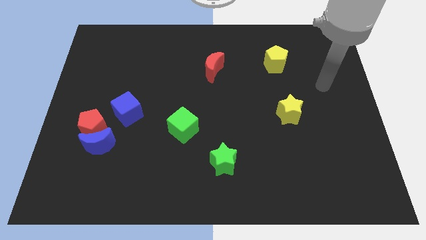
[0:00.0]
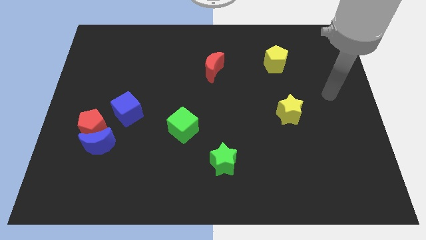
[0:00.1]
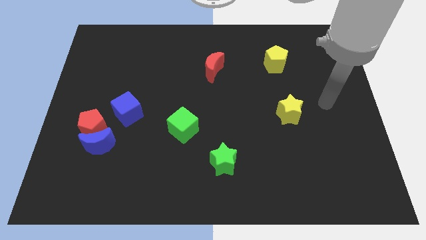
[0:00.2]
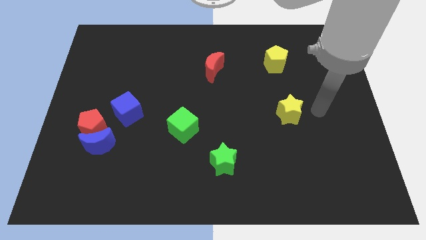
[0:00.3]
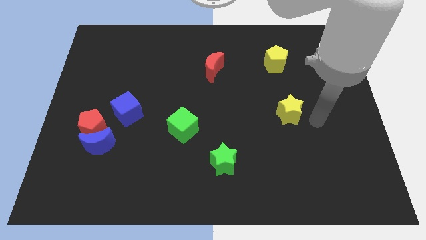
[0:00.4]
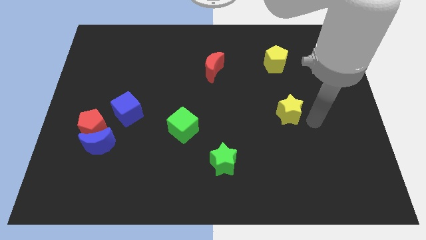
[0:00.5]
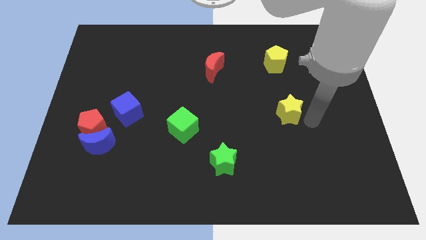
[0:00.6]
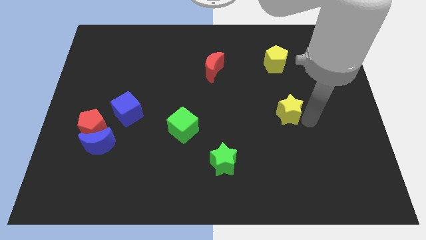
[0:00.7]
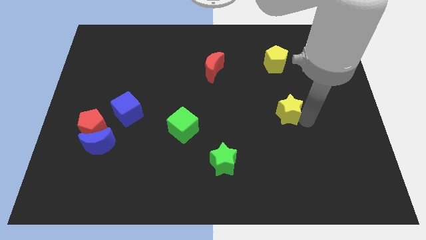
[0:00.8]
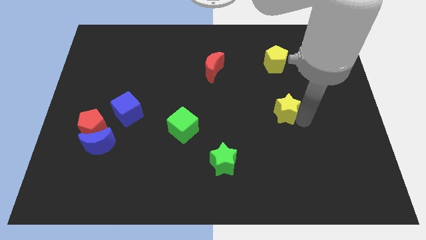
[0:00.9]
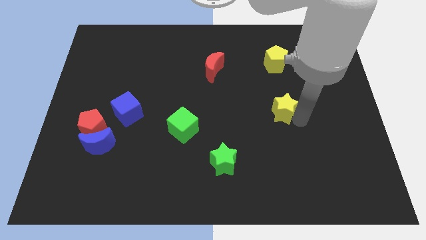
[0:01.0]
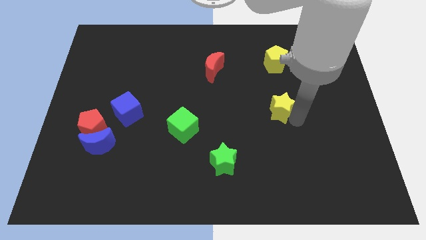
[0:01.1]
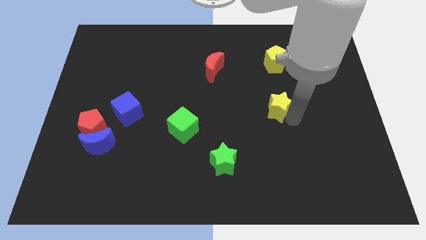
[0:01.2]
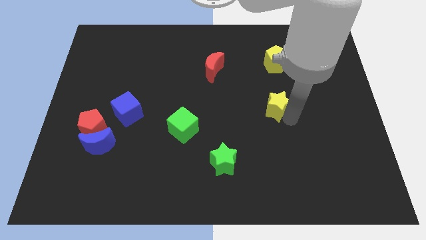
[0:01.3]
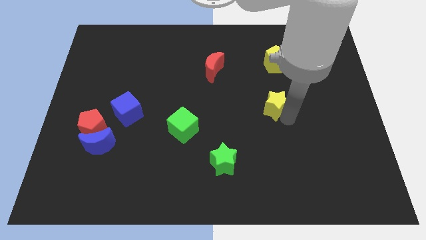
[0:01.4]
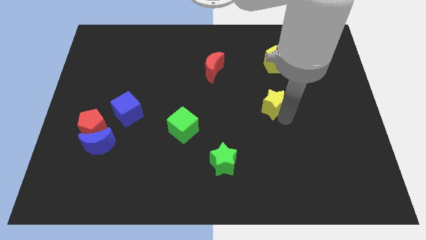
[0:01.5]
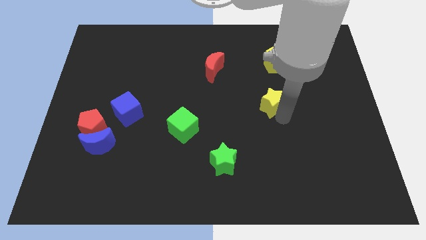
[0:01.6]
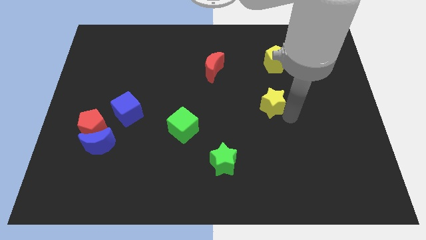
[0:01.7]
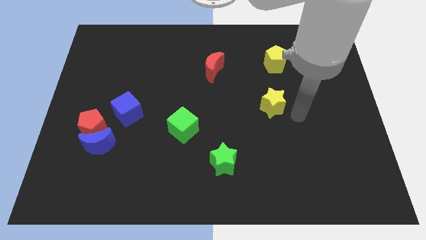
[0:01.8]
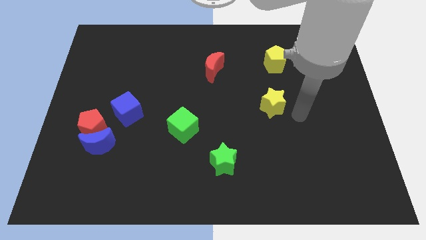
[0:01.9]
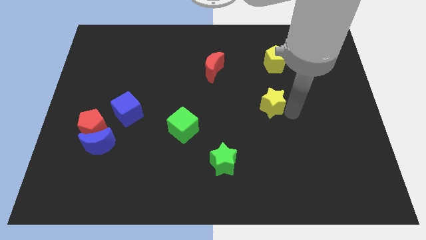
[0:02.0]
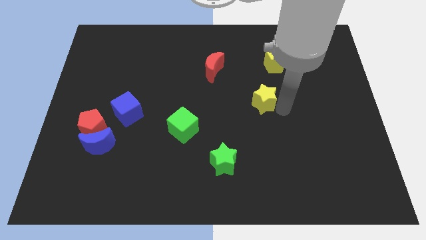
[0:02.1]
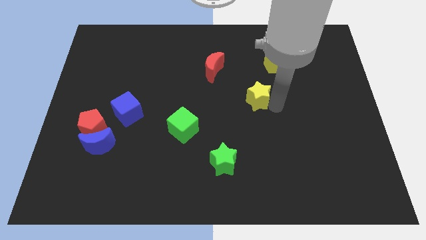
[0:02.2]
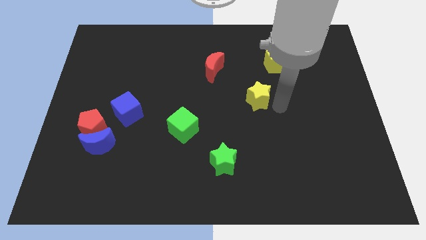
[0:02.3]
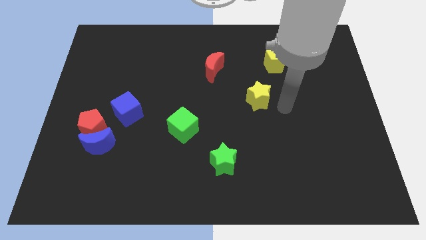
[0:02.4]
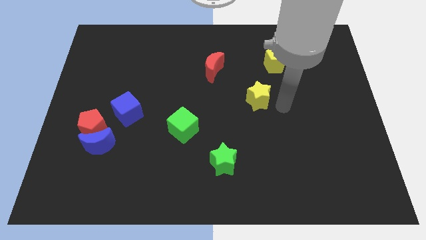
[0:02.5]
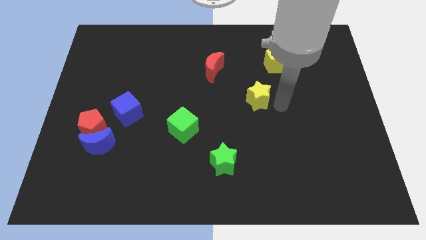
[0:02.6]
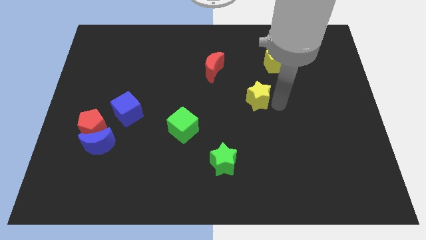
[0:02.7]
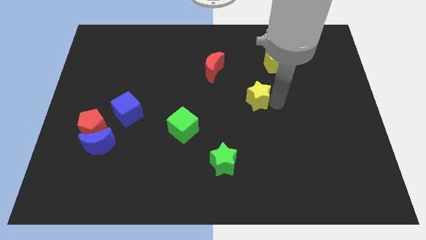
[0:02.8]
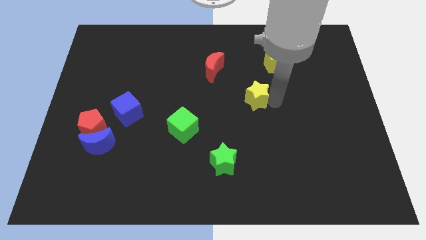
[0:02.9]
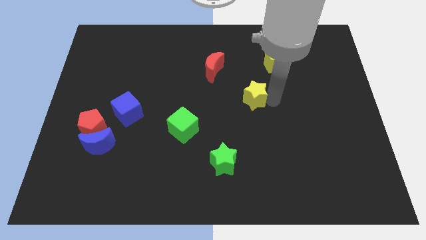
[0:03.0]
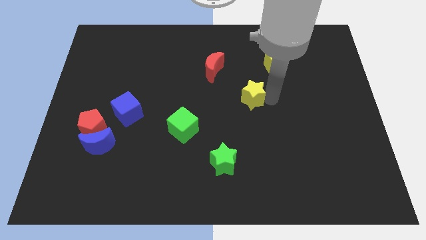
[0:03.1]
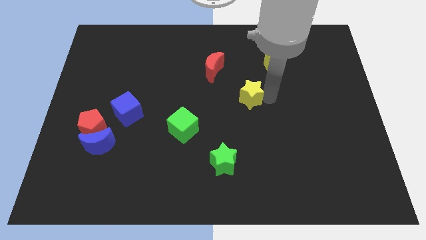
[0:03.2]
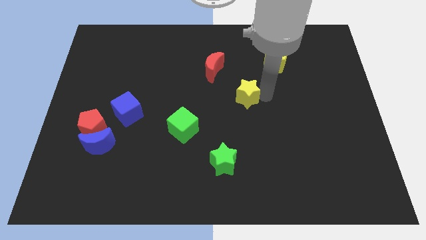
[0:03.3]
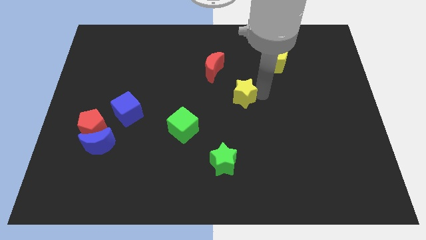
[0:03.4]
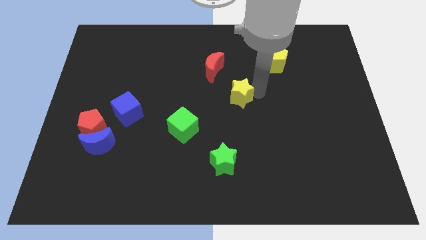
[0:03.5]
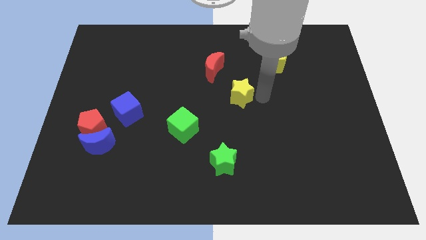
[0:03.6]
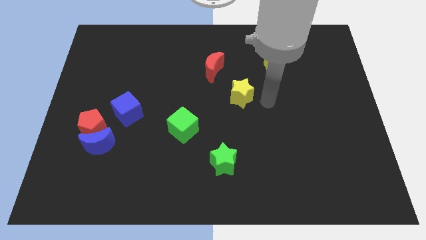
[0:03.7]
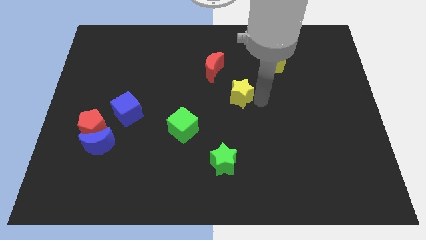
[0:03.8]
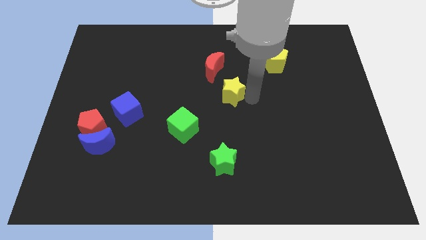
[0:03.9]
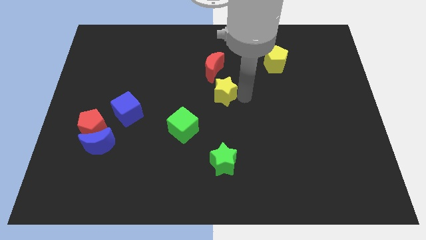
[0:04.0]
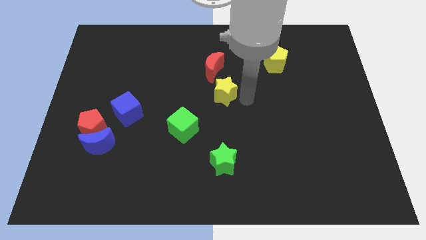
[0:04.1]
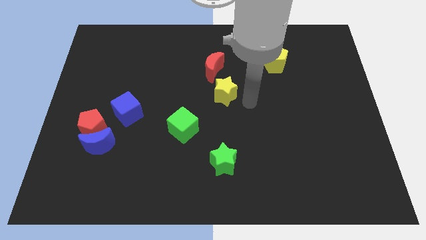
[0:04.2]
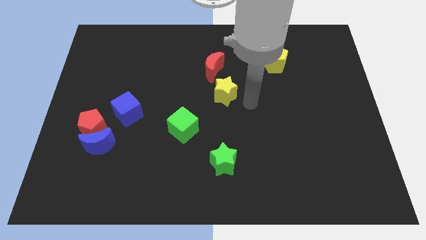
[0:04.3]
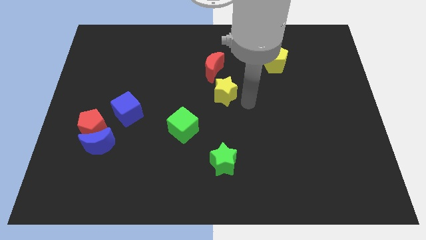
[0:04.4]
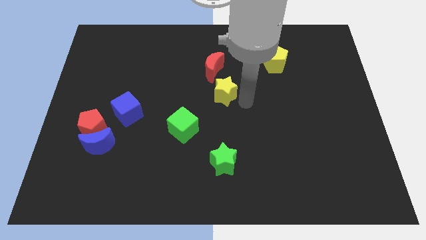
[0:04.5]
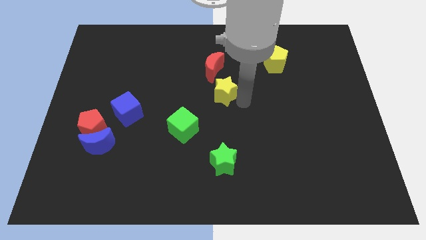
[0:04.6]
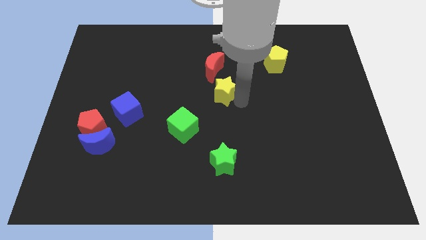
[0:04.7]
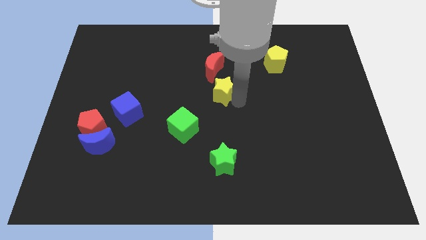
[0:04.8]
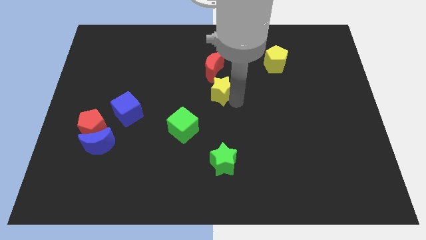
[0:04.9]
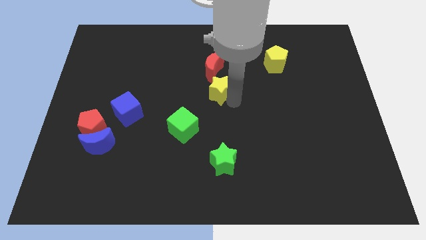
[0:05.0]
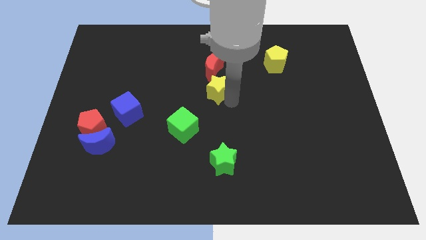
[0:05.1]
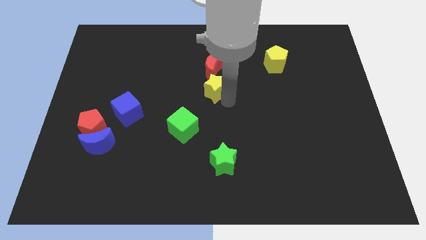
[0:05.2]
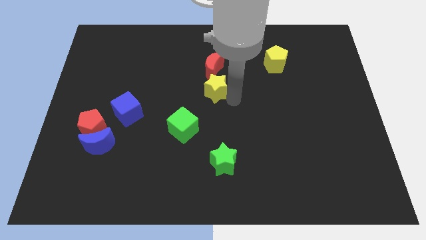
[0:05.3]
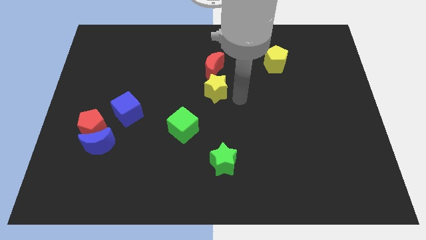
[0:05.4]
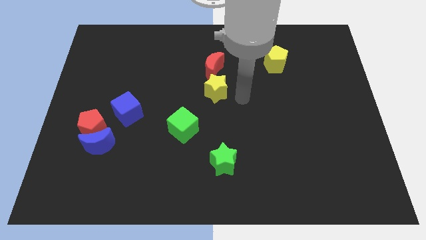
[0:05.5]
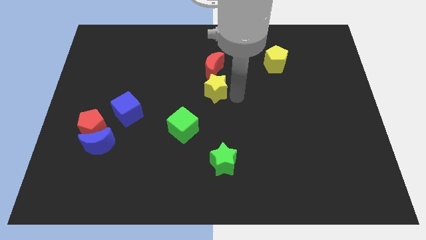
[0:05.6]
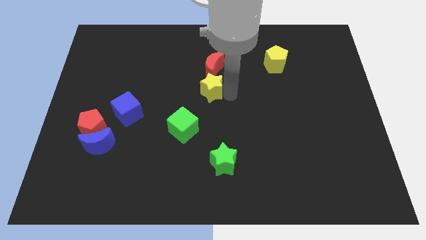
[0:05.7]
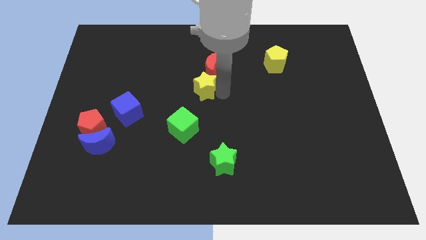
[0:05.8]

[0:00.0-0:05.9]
put the yellow star to the bottom left side of the red moon

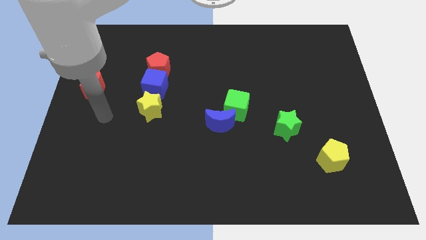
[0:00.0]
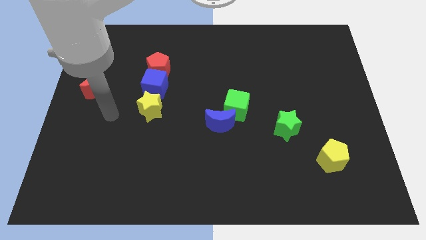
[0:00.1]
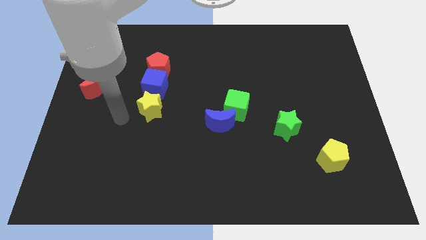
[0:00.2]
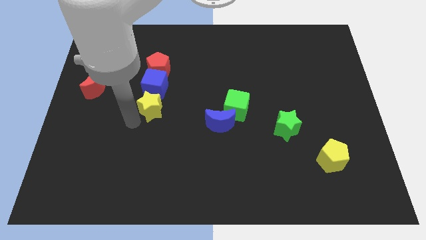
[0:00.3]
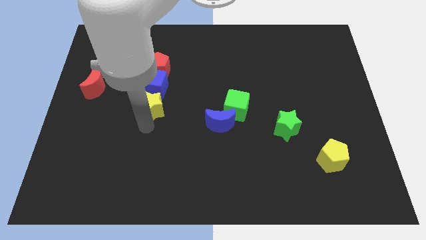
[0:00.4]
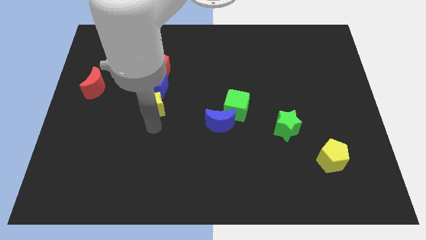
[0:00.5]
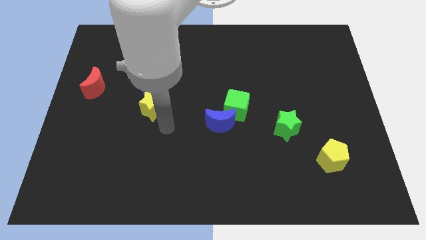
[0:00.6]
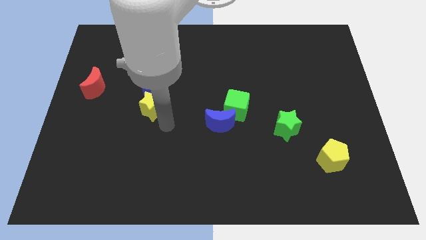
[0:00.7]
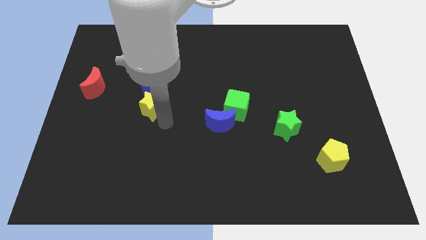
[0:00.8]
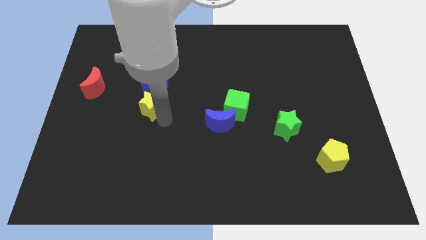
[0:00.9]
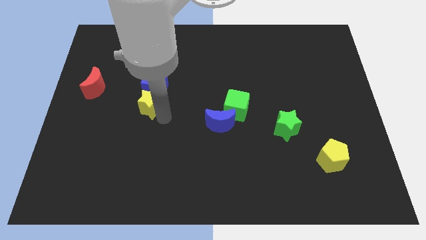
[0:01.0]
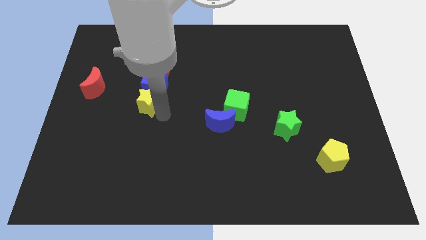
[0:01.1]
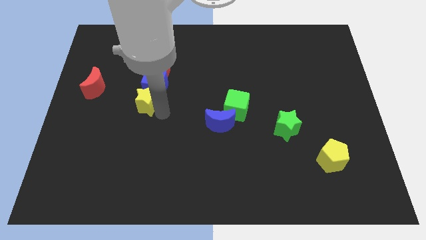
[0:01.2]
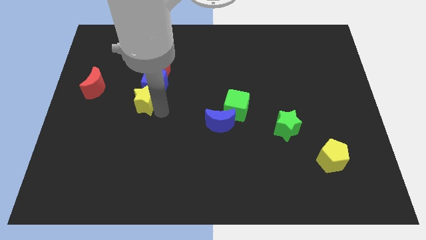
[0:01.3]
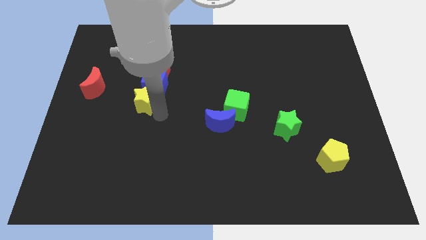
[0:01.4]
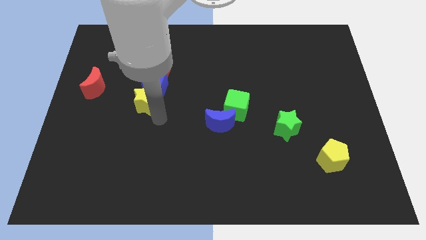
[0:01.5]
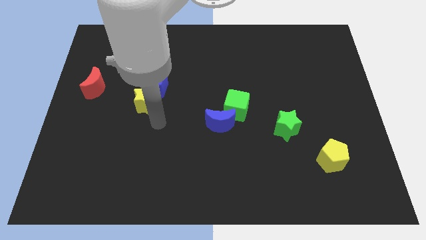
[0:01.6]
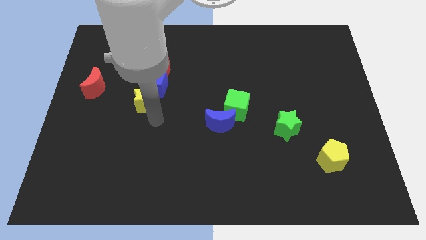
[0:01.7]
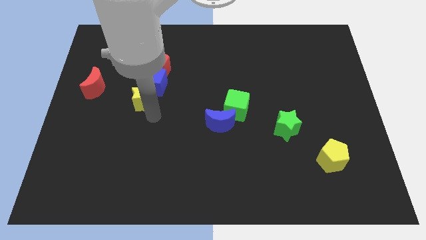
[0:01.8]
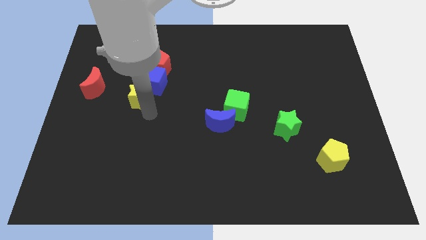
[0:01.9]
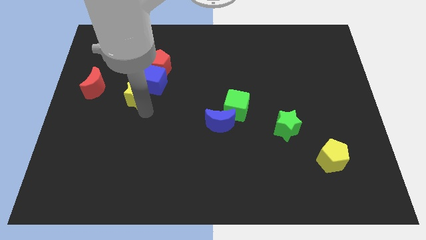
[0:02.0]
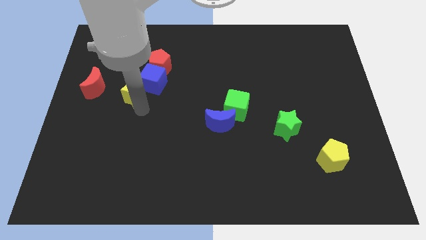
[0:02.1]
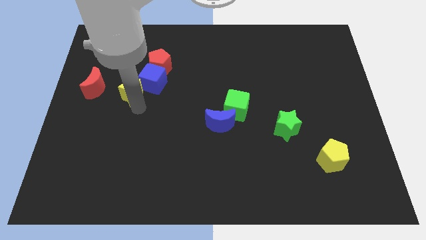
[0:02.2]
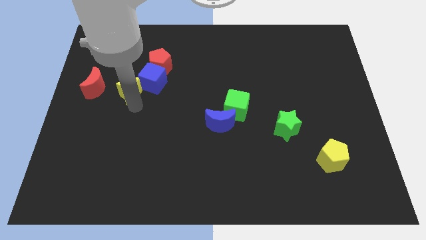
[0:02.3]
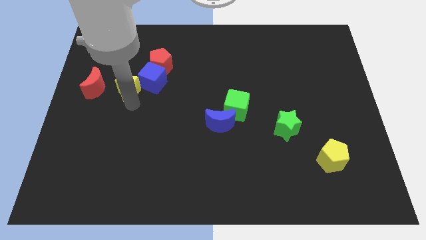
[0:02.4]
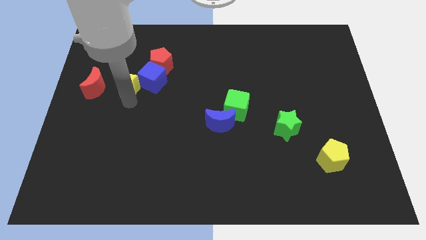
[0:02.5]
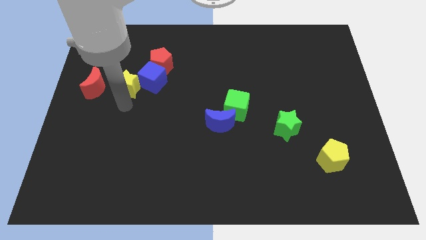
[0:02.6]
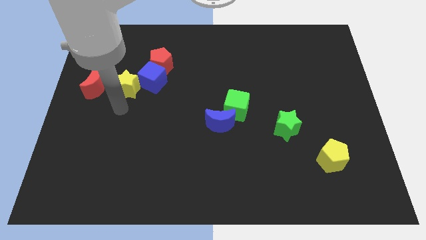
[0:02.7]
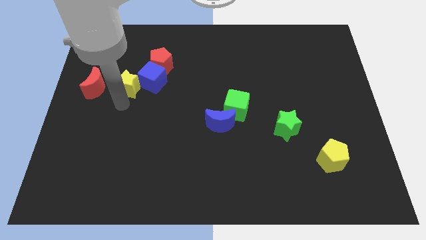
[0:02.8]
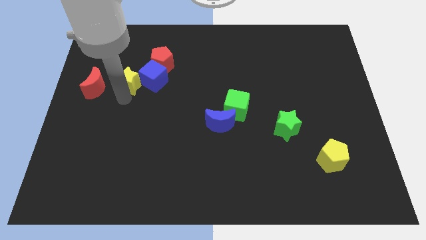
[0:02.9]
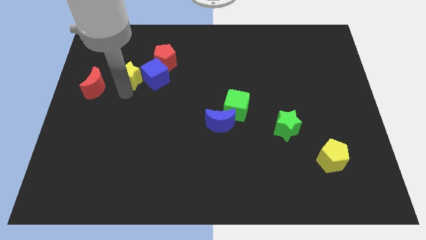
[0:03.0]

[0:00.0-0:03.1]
push the yellow star diagonally up and to the left of the blue cube
